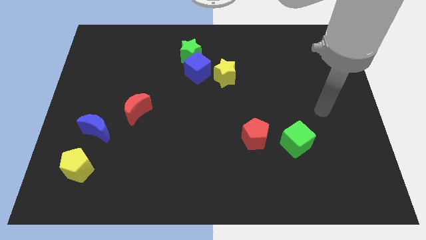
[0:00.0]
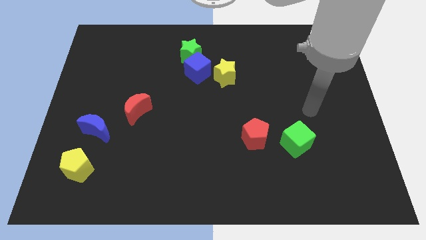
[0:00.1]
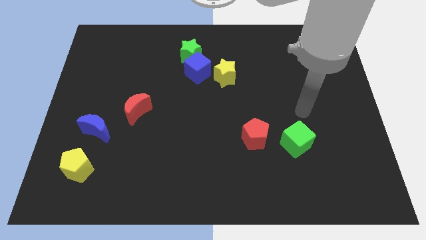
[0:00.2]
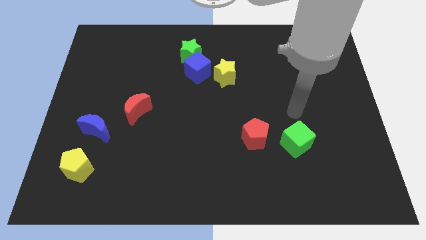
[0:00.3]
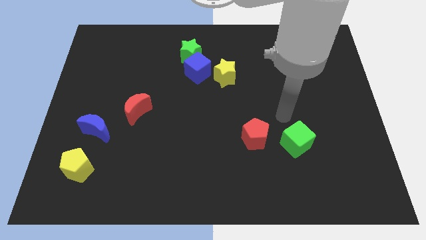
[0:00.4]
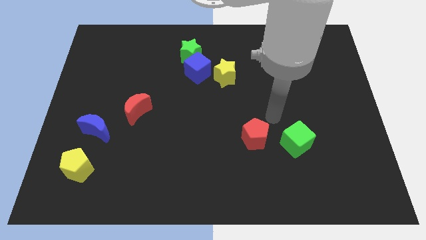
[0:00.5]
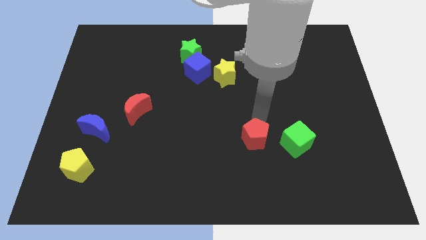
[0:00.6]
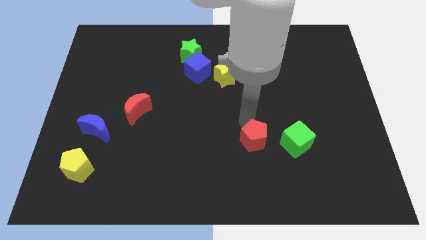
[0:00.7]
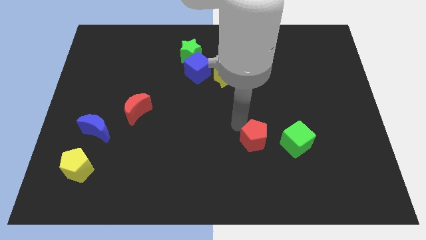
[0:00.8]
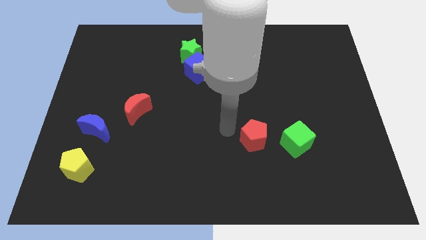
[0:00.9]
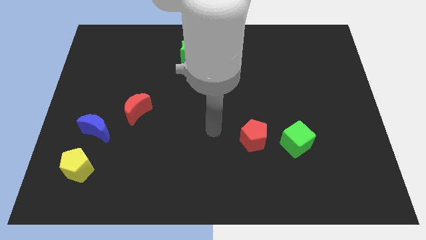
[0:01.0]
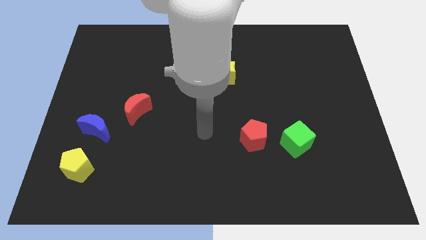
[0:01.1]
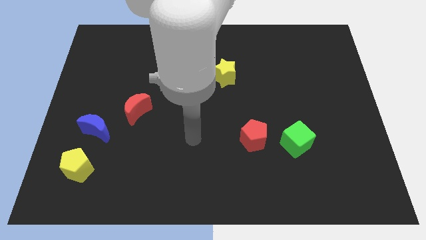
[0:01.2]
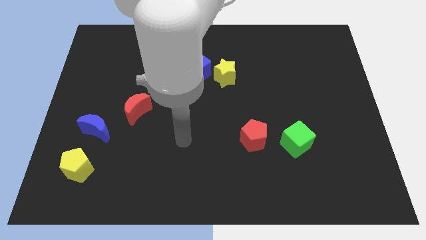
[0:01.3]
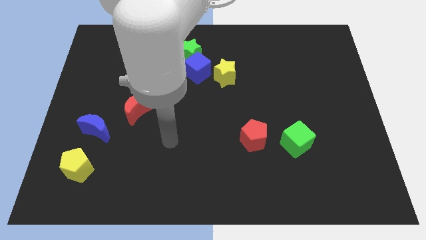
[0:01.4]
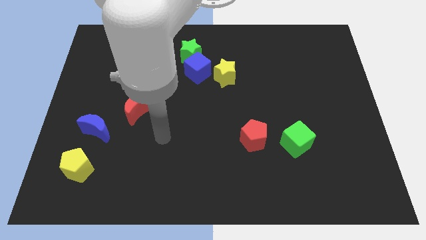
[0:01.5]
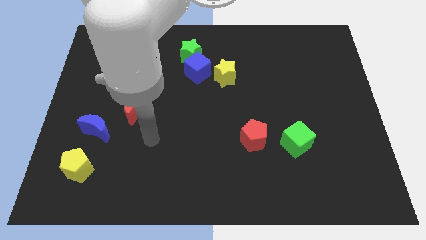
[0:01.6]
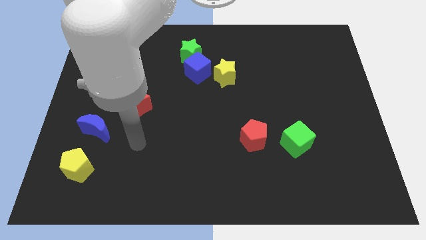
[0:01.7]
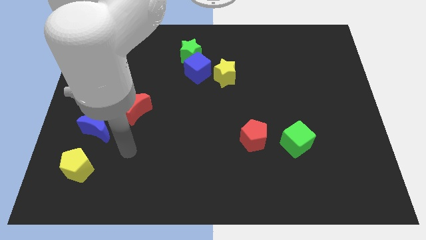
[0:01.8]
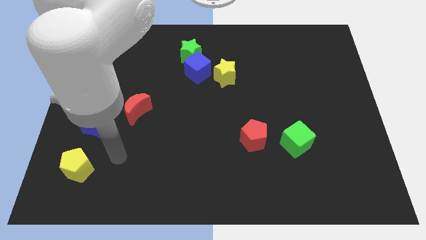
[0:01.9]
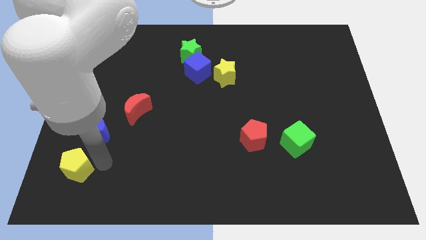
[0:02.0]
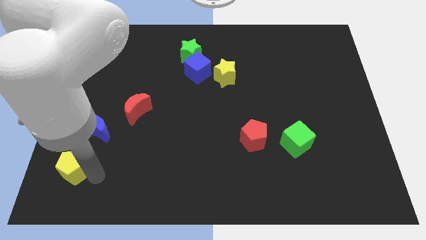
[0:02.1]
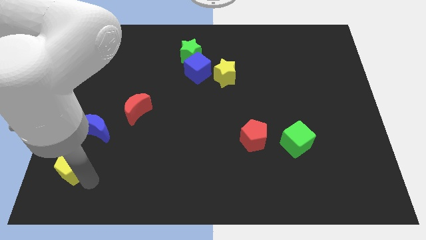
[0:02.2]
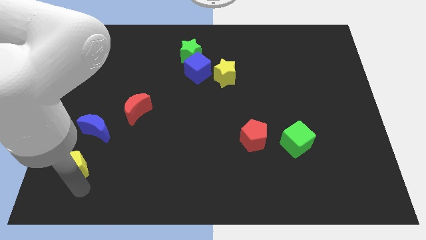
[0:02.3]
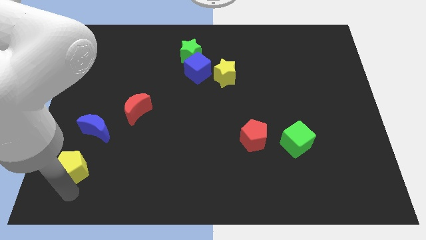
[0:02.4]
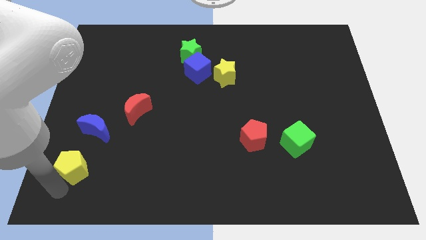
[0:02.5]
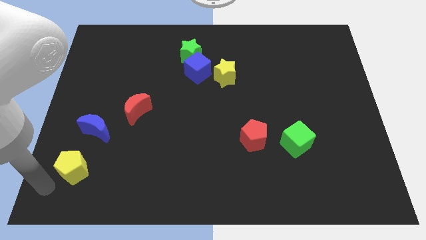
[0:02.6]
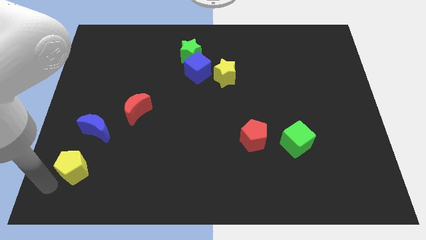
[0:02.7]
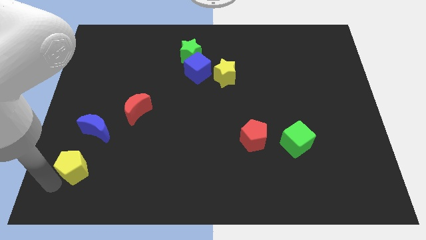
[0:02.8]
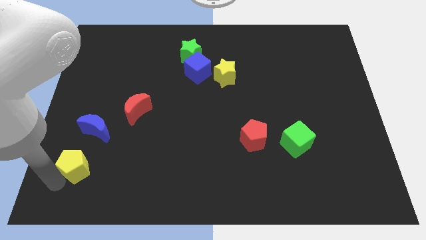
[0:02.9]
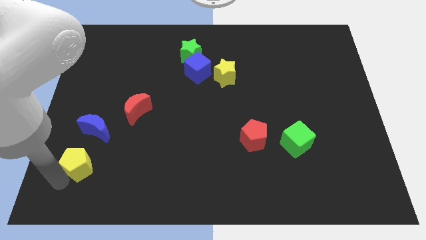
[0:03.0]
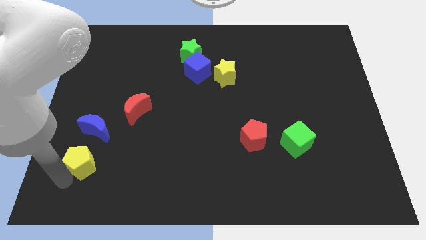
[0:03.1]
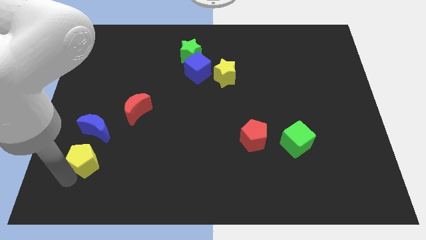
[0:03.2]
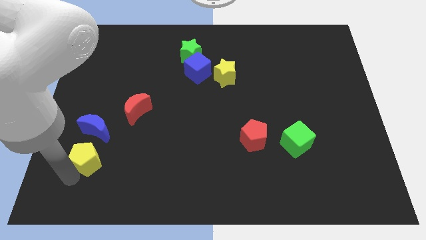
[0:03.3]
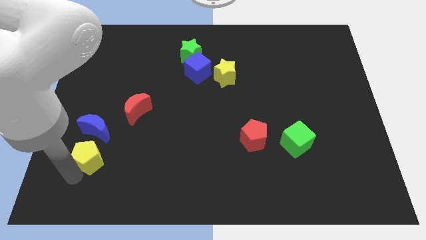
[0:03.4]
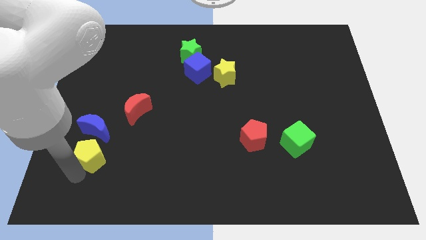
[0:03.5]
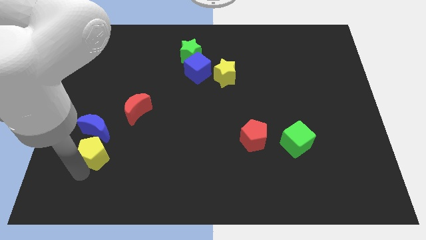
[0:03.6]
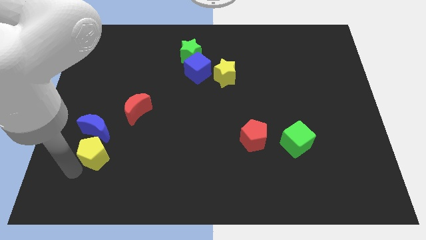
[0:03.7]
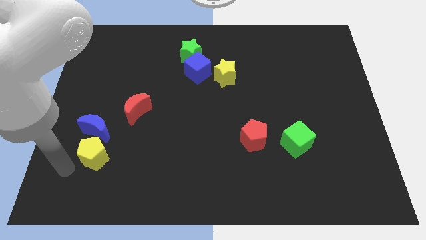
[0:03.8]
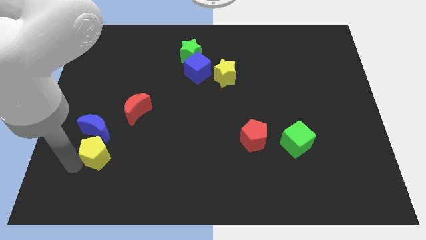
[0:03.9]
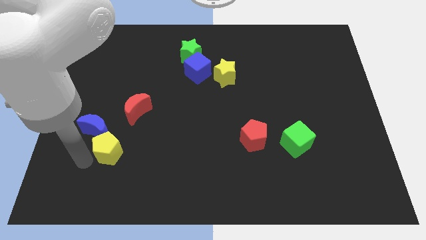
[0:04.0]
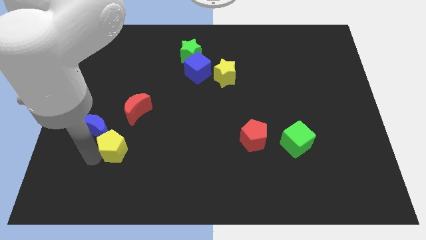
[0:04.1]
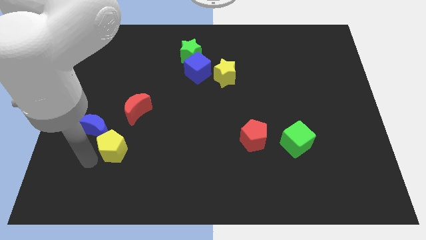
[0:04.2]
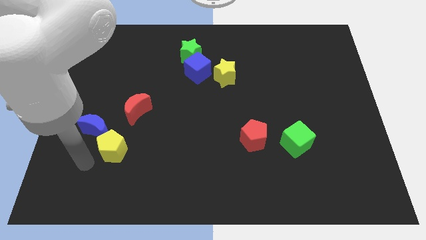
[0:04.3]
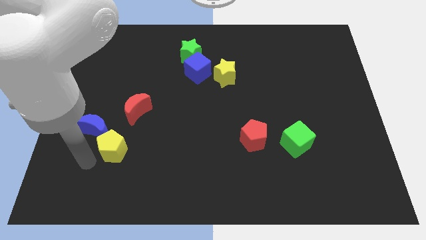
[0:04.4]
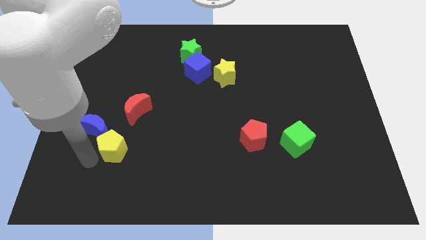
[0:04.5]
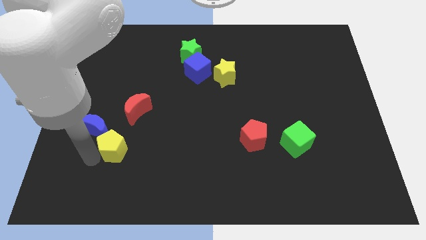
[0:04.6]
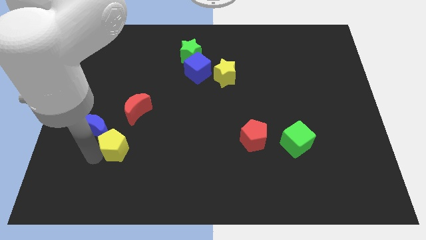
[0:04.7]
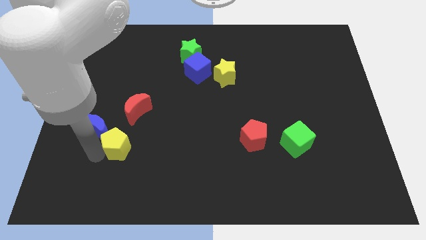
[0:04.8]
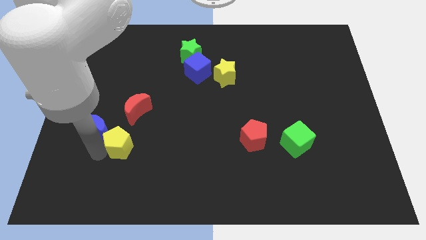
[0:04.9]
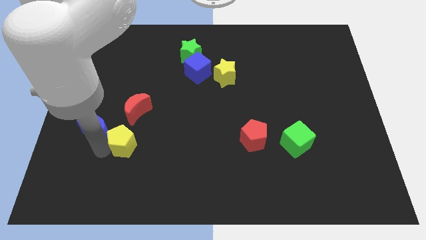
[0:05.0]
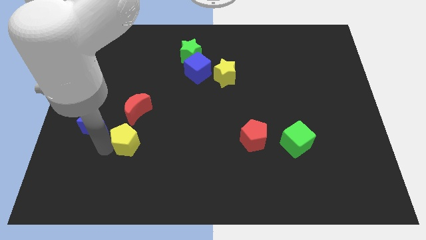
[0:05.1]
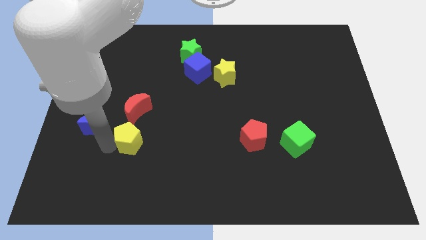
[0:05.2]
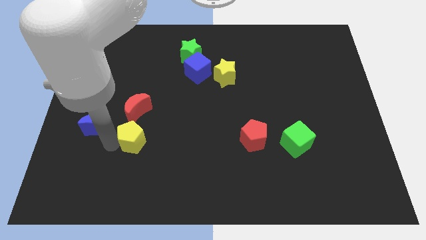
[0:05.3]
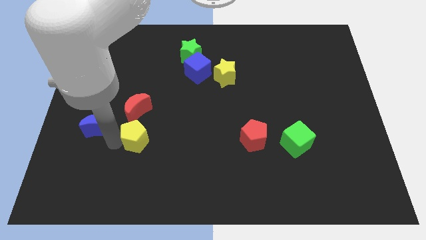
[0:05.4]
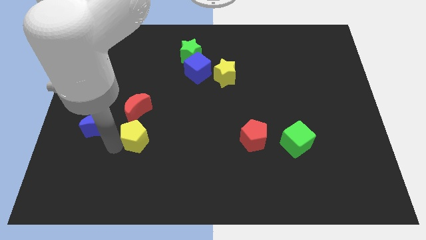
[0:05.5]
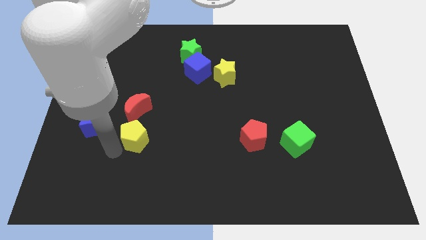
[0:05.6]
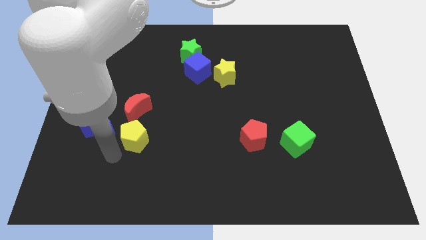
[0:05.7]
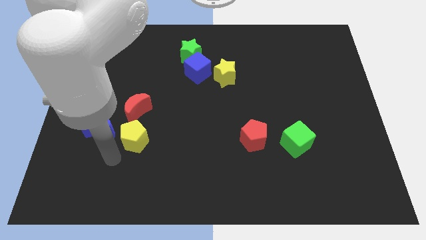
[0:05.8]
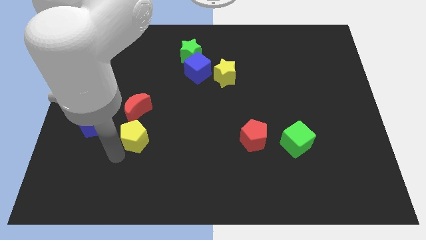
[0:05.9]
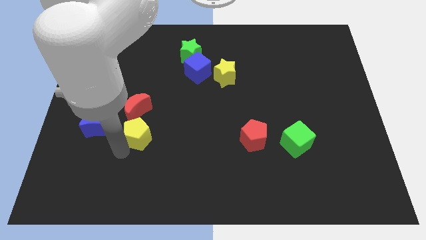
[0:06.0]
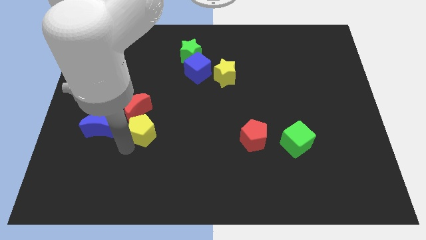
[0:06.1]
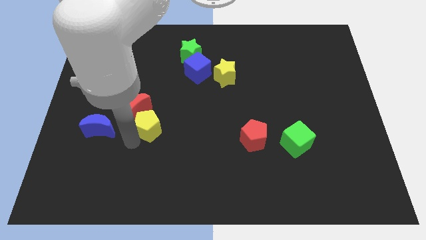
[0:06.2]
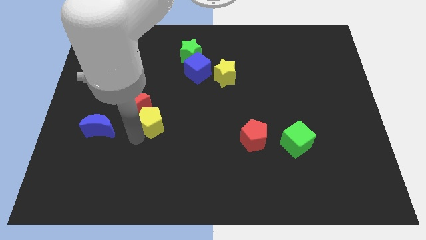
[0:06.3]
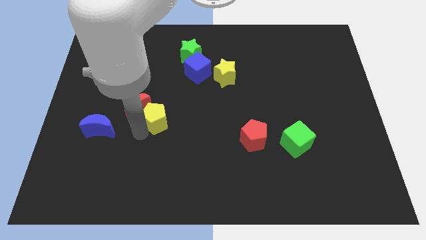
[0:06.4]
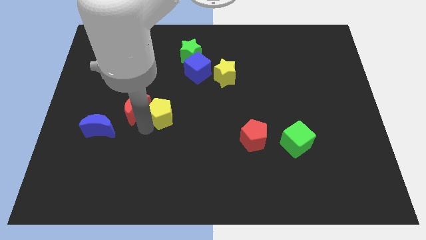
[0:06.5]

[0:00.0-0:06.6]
slide the yellow pentagon to the center
